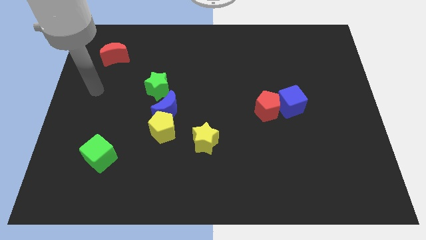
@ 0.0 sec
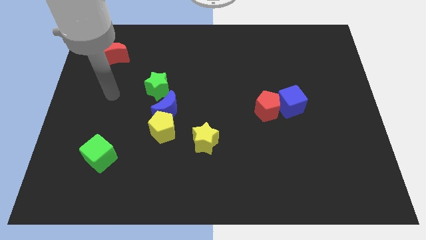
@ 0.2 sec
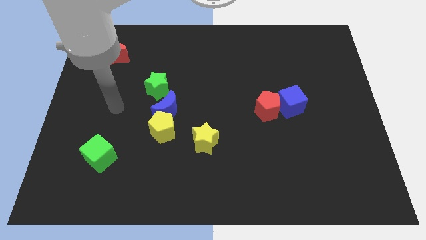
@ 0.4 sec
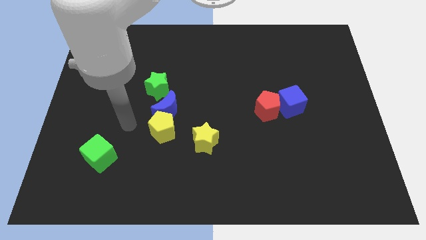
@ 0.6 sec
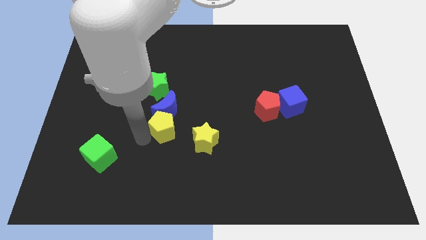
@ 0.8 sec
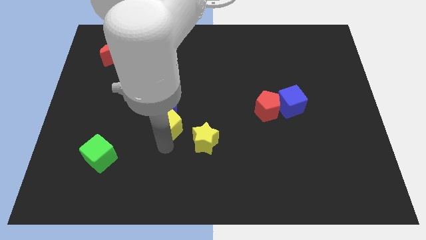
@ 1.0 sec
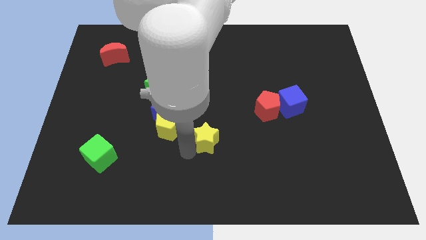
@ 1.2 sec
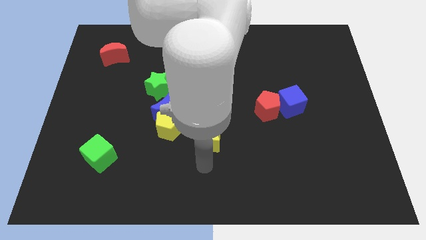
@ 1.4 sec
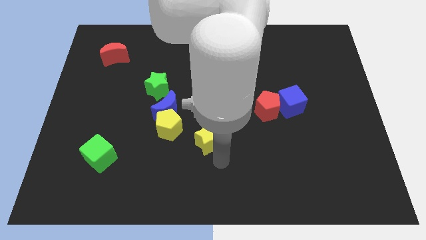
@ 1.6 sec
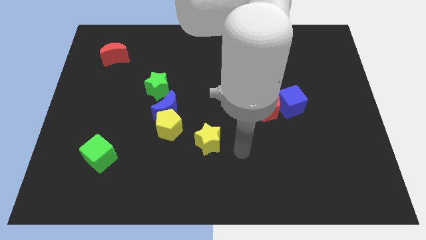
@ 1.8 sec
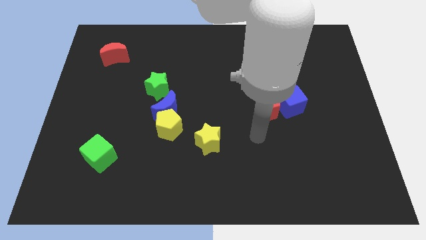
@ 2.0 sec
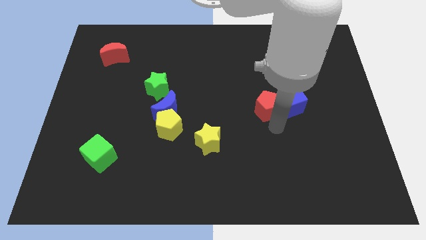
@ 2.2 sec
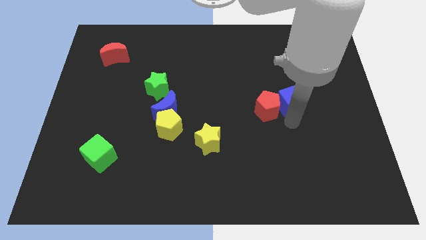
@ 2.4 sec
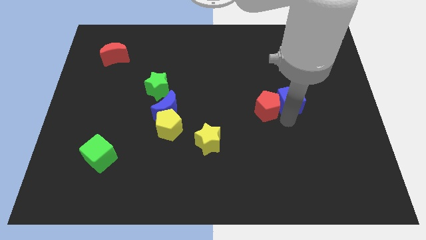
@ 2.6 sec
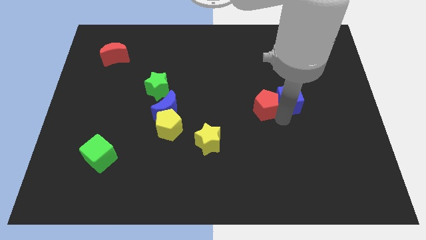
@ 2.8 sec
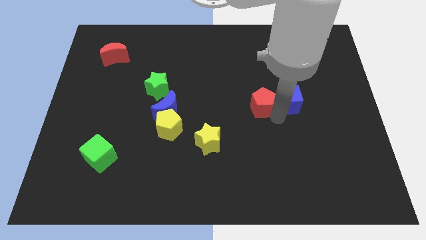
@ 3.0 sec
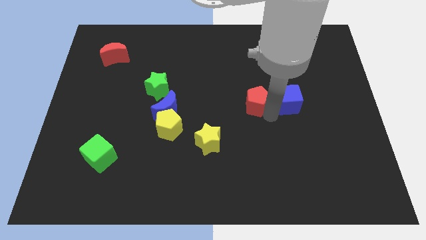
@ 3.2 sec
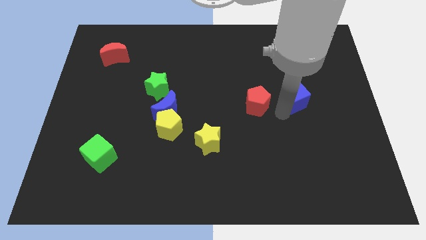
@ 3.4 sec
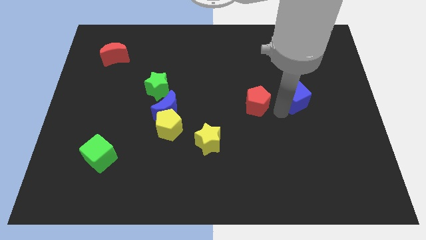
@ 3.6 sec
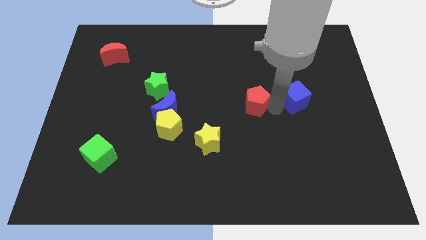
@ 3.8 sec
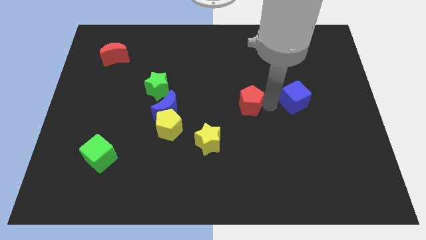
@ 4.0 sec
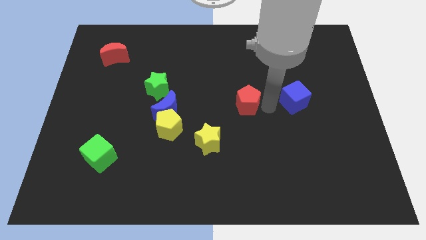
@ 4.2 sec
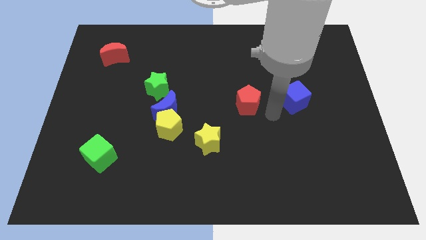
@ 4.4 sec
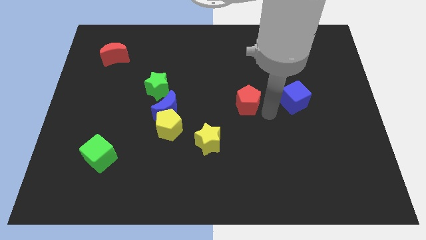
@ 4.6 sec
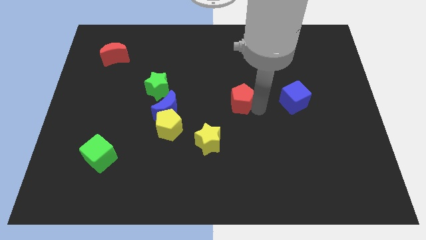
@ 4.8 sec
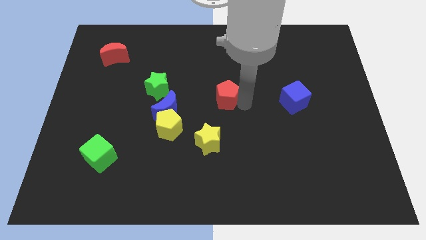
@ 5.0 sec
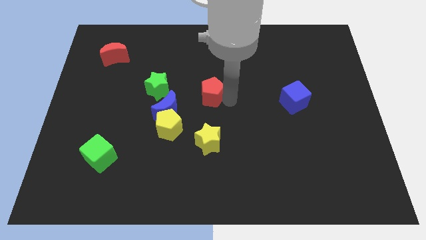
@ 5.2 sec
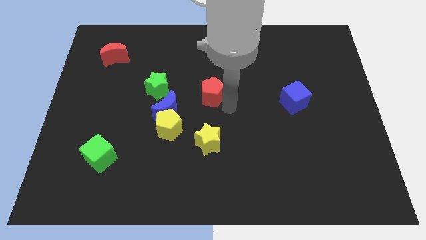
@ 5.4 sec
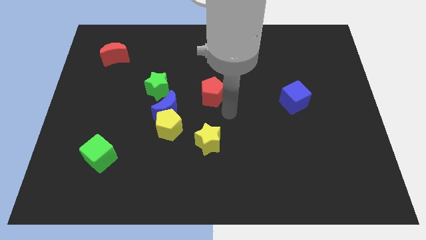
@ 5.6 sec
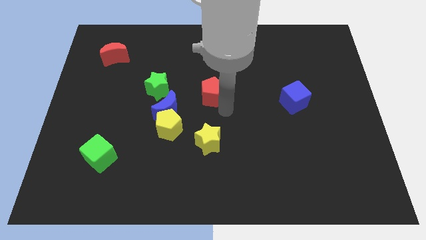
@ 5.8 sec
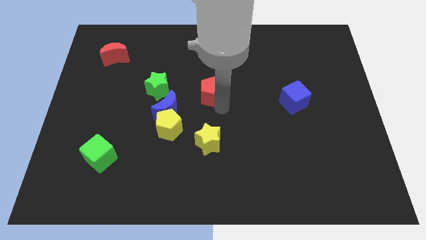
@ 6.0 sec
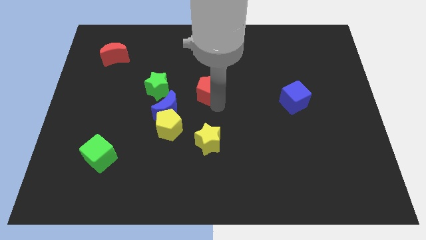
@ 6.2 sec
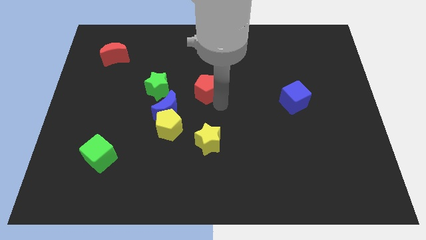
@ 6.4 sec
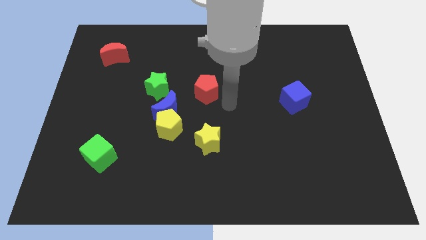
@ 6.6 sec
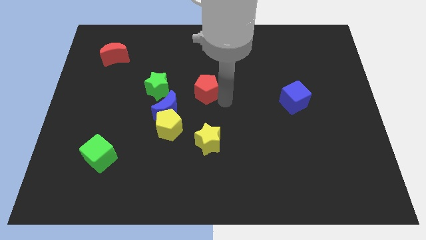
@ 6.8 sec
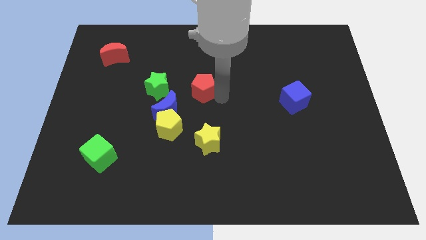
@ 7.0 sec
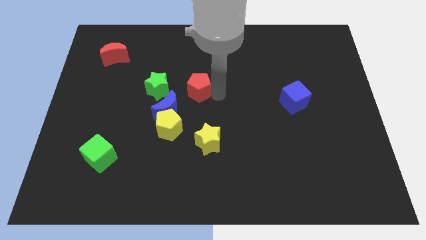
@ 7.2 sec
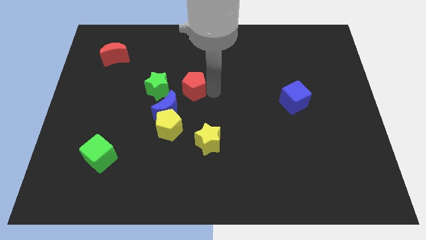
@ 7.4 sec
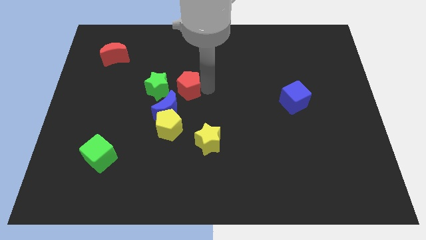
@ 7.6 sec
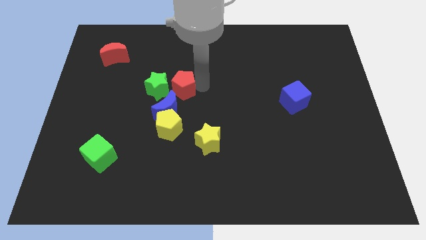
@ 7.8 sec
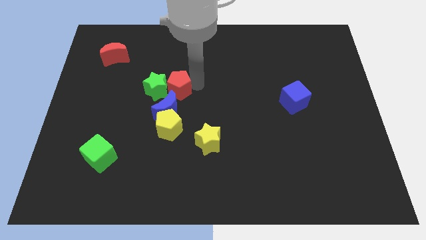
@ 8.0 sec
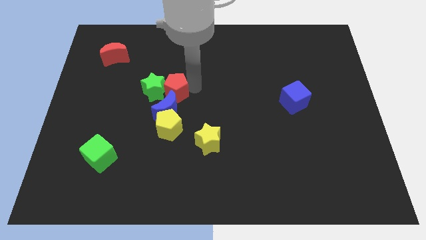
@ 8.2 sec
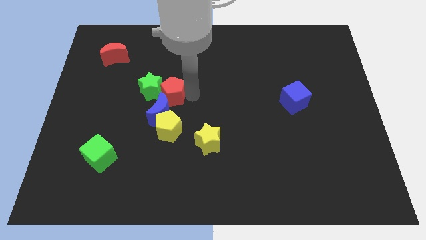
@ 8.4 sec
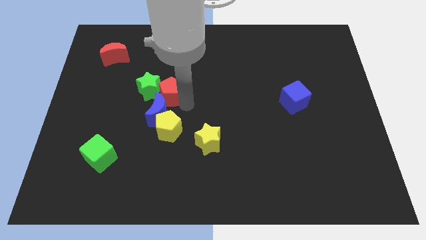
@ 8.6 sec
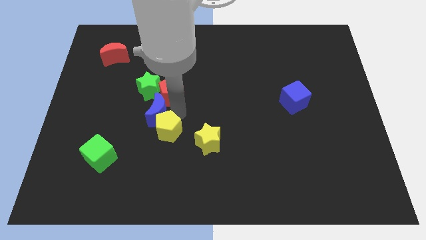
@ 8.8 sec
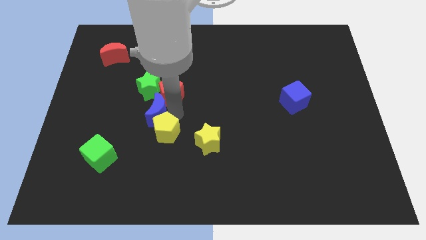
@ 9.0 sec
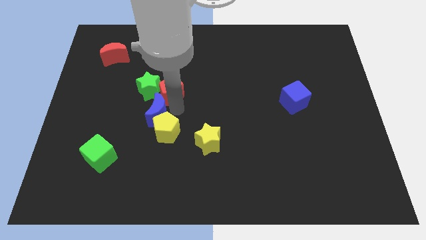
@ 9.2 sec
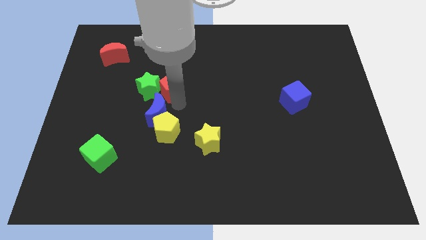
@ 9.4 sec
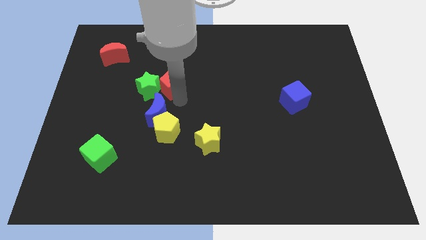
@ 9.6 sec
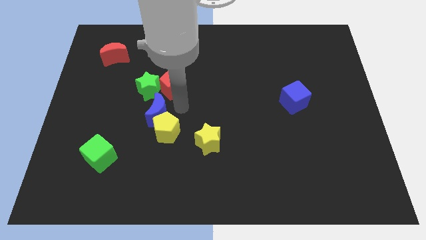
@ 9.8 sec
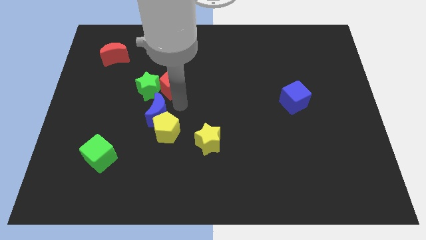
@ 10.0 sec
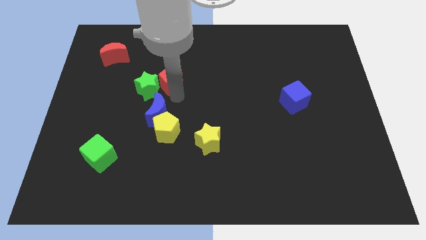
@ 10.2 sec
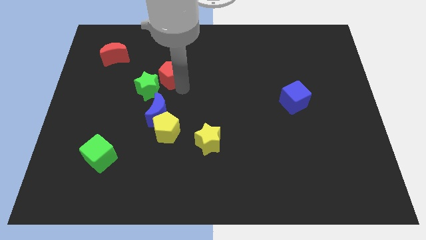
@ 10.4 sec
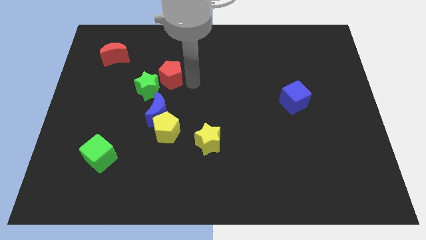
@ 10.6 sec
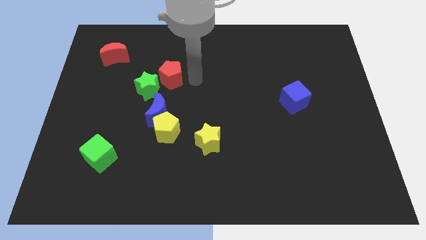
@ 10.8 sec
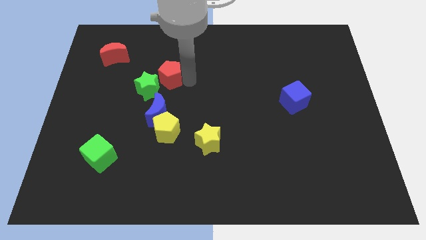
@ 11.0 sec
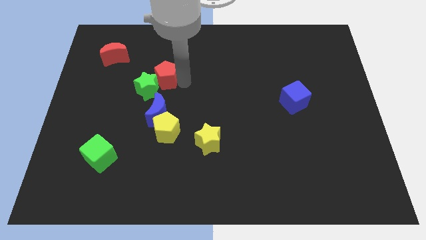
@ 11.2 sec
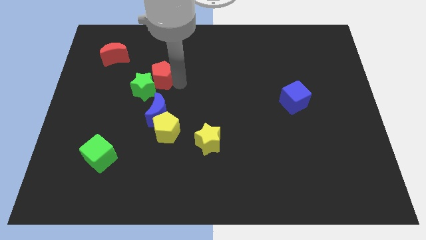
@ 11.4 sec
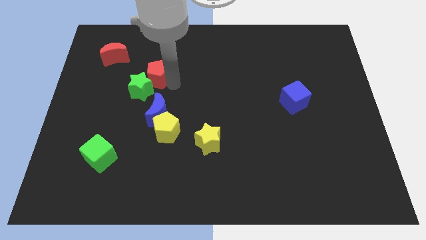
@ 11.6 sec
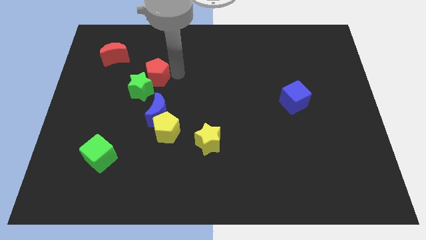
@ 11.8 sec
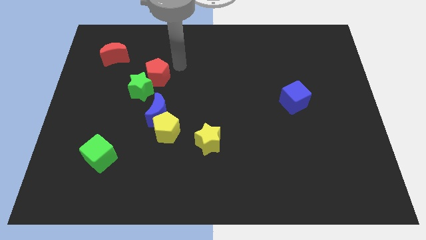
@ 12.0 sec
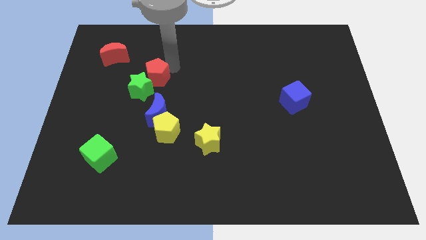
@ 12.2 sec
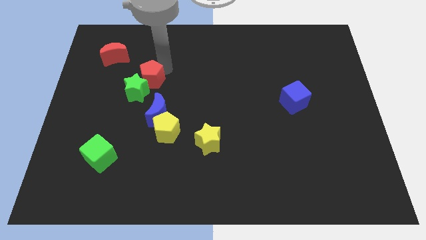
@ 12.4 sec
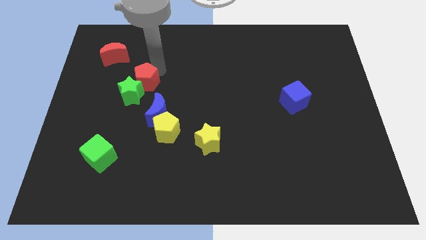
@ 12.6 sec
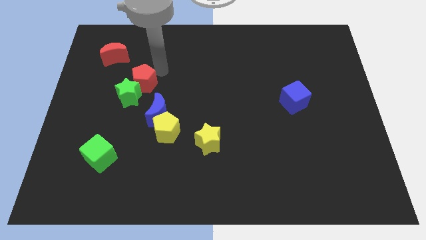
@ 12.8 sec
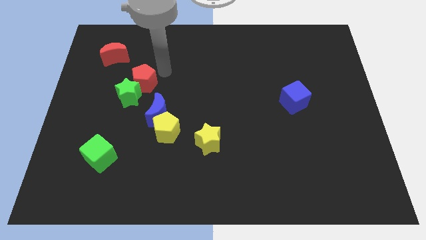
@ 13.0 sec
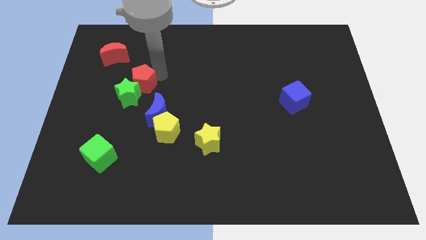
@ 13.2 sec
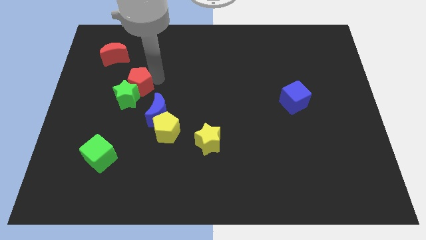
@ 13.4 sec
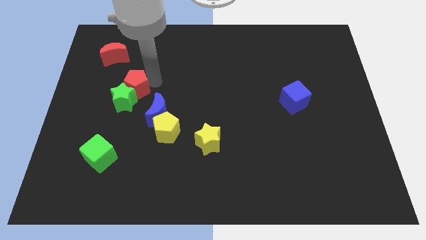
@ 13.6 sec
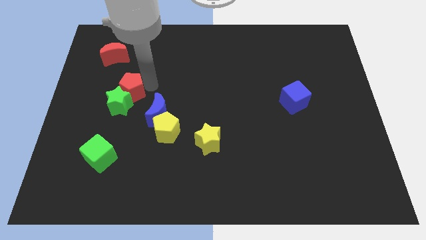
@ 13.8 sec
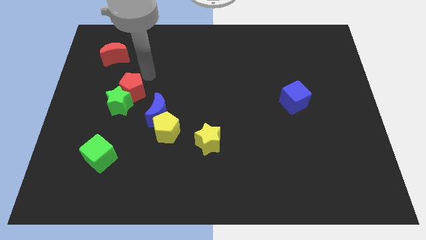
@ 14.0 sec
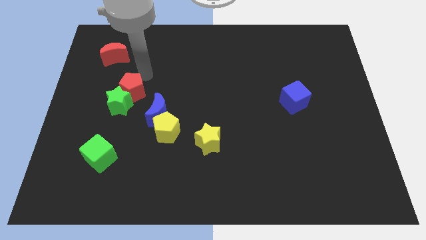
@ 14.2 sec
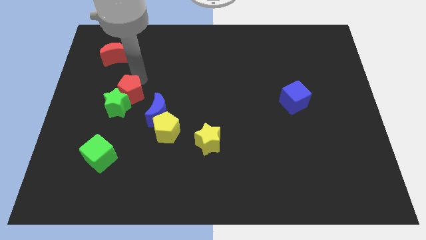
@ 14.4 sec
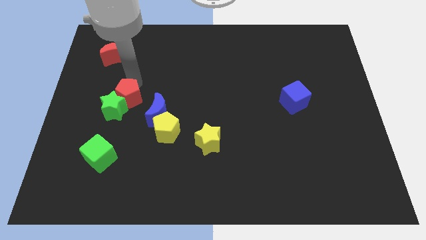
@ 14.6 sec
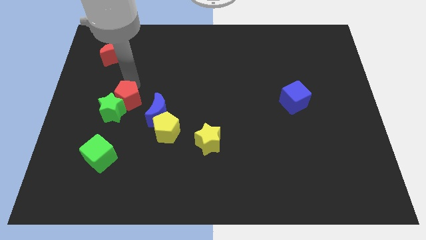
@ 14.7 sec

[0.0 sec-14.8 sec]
move the red pentagon just left of the blue moon
